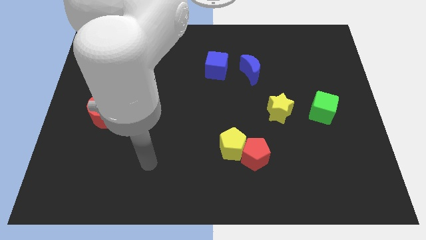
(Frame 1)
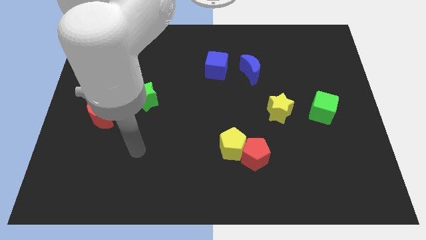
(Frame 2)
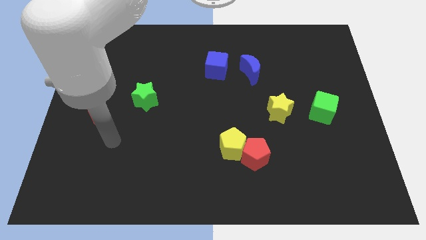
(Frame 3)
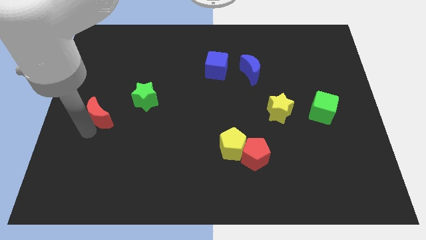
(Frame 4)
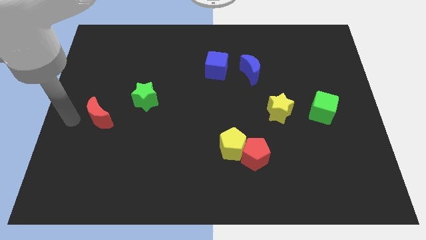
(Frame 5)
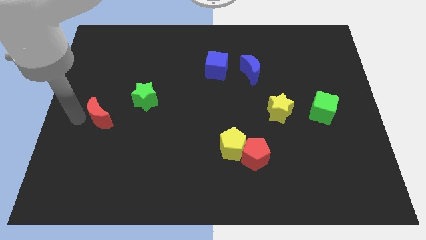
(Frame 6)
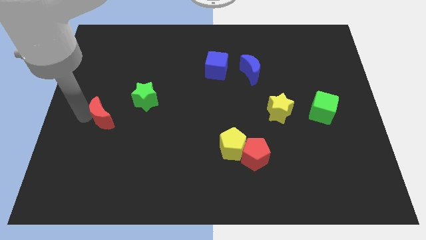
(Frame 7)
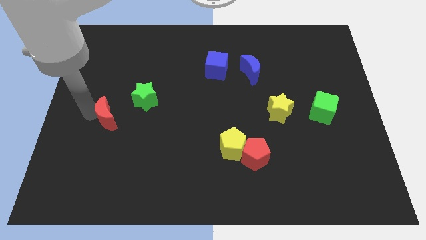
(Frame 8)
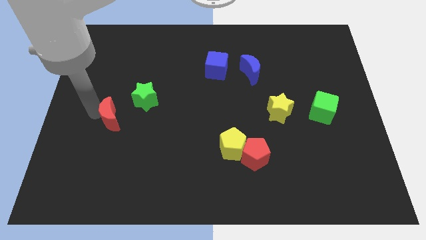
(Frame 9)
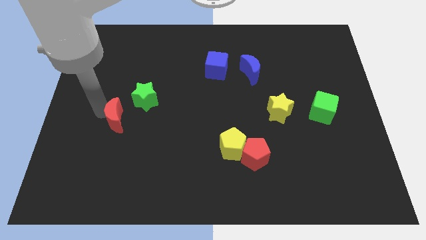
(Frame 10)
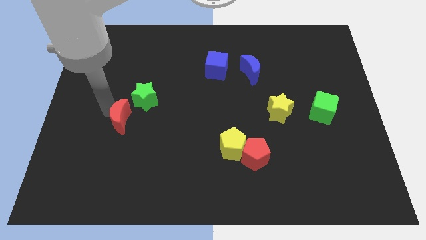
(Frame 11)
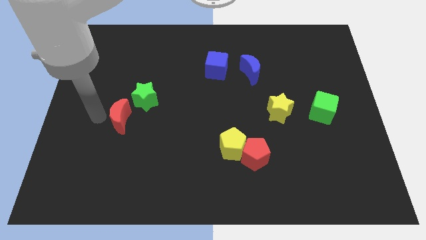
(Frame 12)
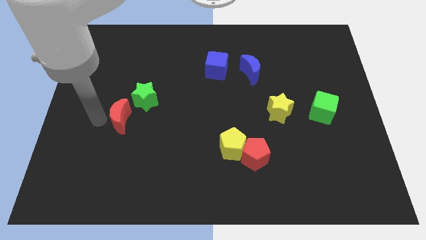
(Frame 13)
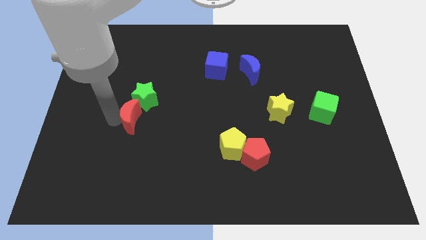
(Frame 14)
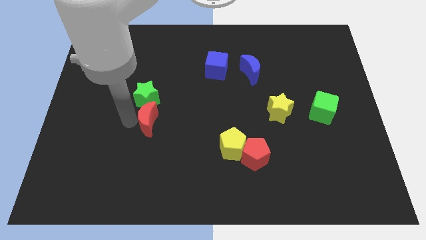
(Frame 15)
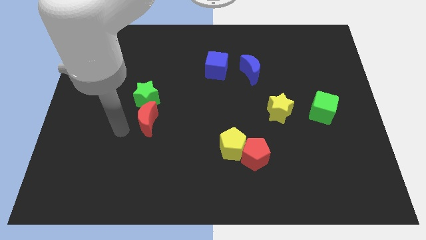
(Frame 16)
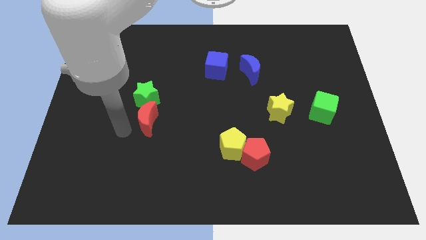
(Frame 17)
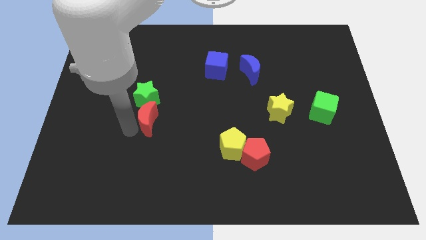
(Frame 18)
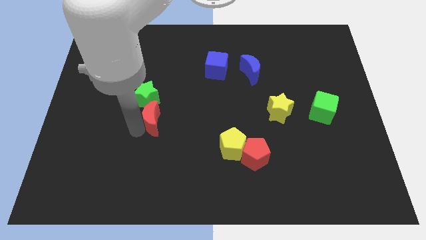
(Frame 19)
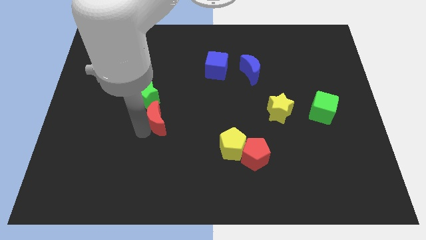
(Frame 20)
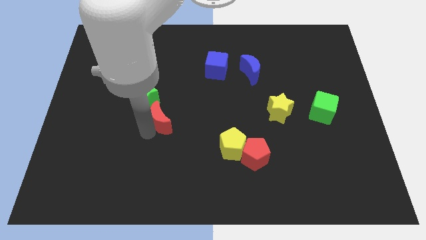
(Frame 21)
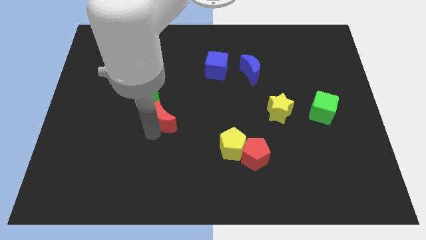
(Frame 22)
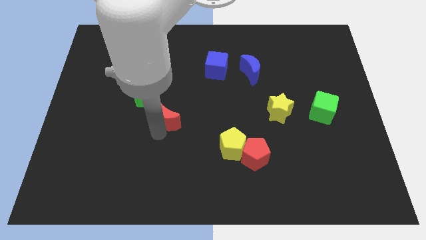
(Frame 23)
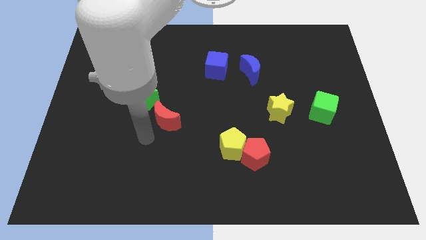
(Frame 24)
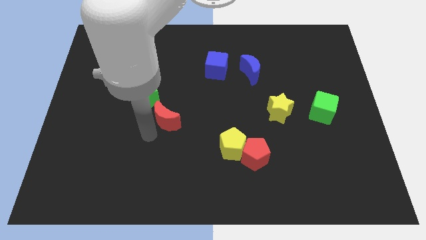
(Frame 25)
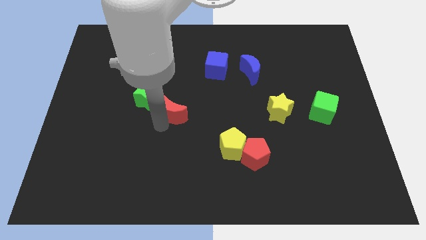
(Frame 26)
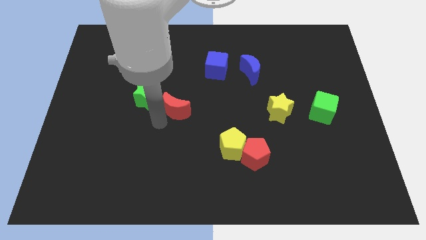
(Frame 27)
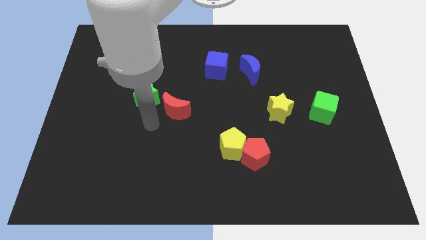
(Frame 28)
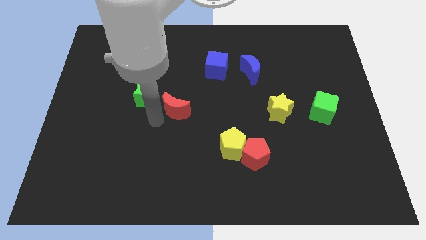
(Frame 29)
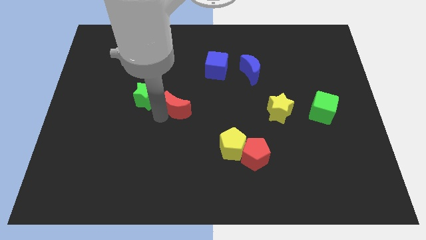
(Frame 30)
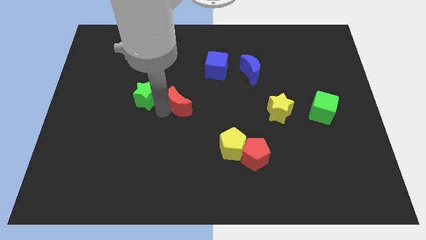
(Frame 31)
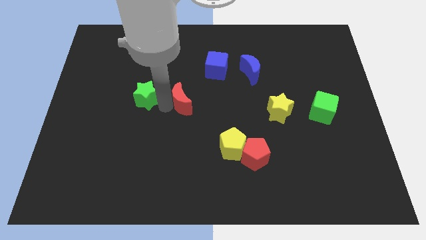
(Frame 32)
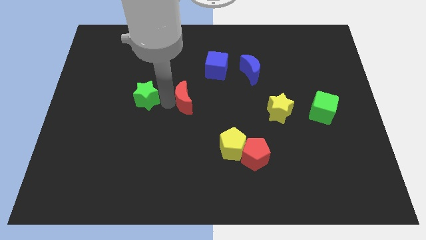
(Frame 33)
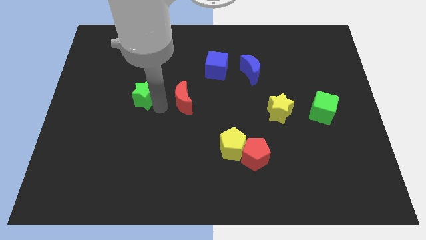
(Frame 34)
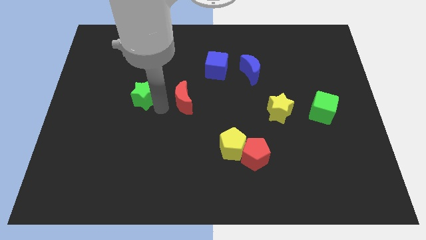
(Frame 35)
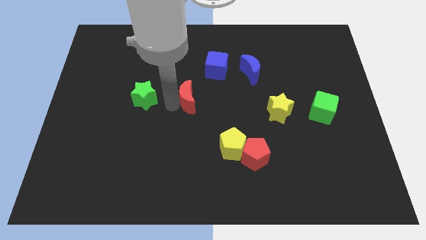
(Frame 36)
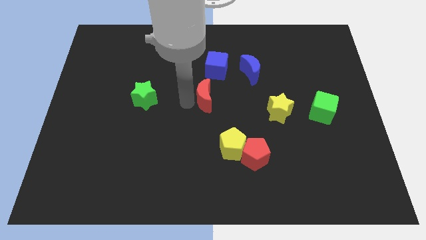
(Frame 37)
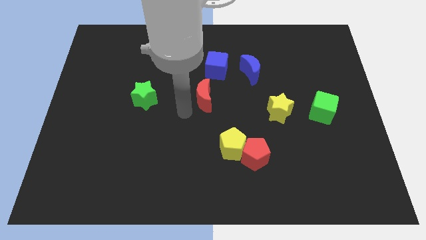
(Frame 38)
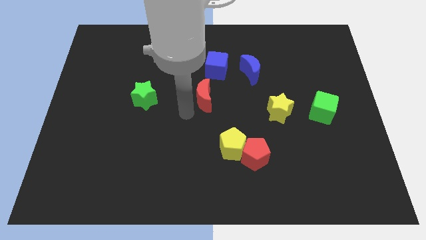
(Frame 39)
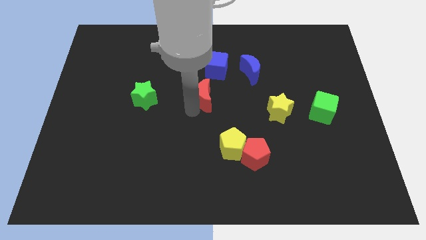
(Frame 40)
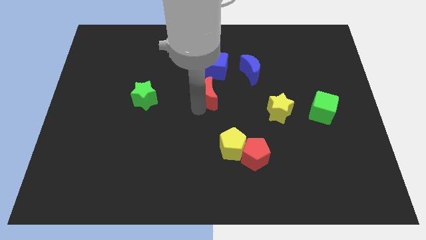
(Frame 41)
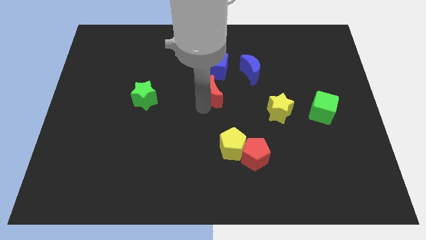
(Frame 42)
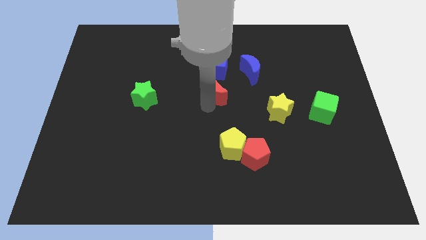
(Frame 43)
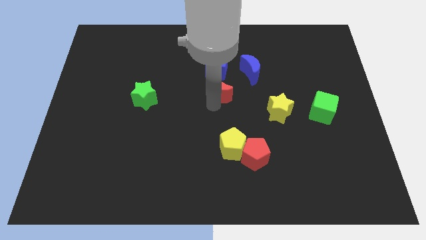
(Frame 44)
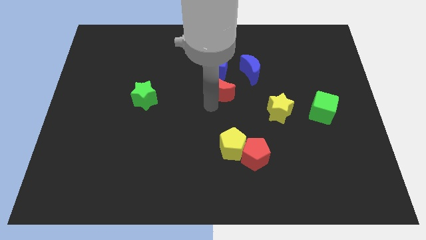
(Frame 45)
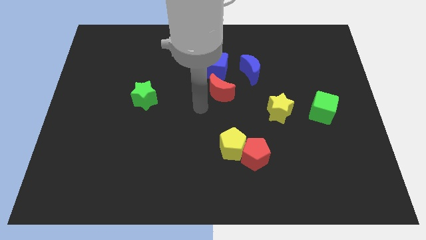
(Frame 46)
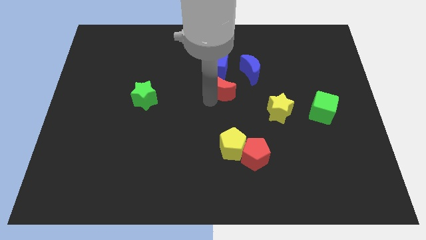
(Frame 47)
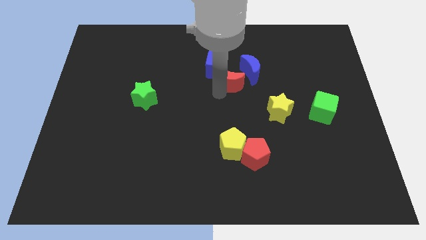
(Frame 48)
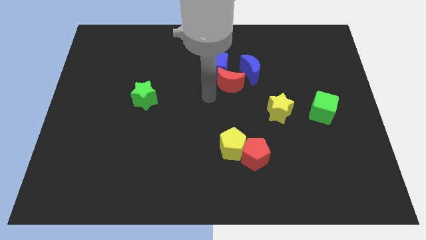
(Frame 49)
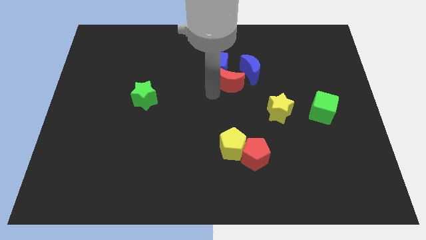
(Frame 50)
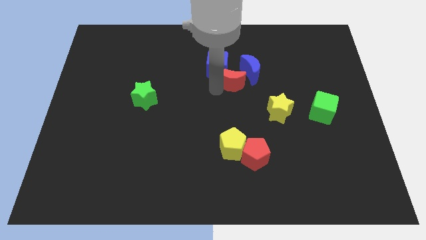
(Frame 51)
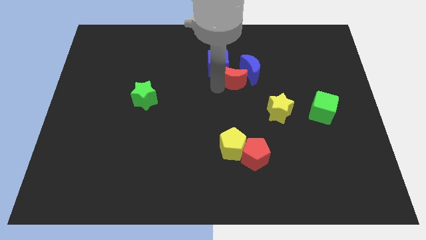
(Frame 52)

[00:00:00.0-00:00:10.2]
move the red moon to the blue moon

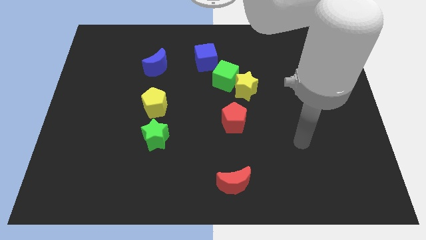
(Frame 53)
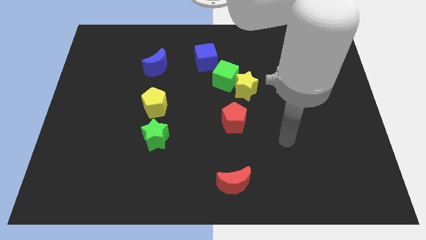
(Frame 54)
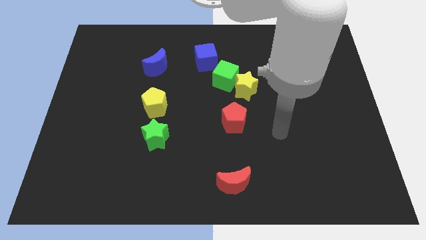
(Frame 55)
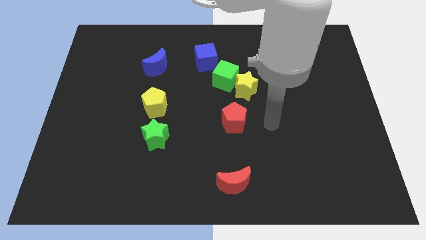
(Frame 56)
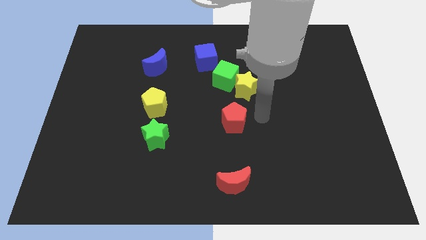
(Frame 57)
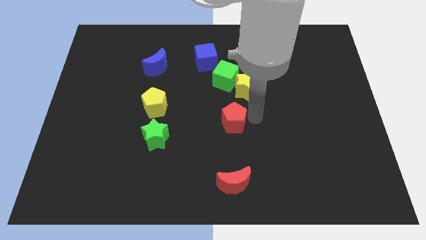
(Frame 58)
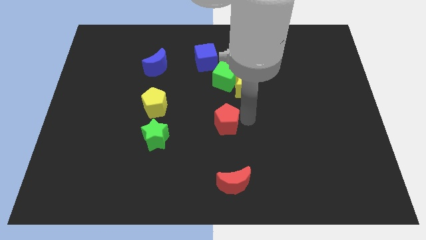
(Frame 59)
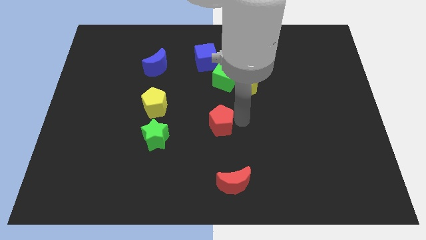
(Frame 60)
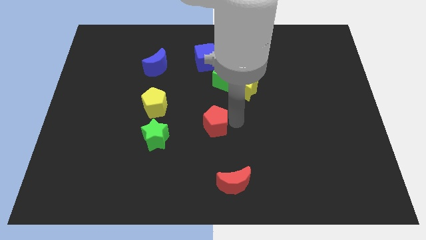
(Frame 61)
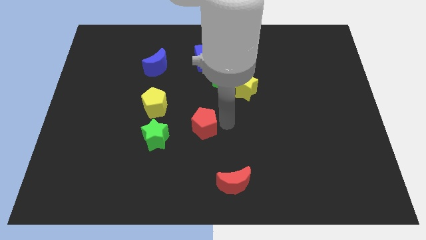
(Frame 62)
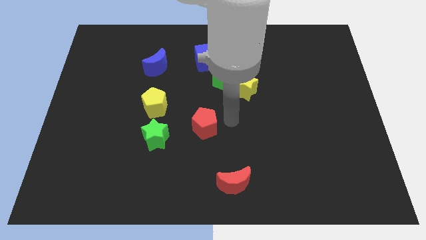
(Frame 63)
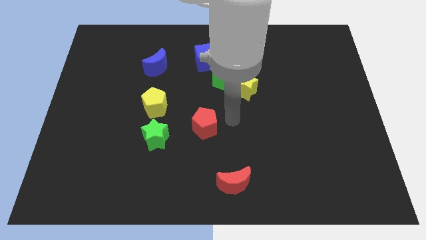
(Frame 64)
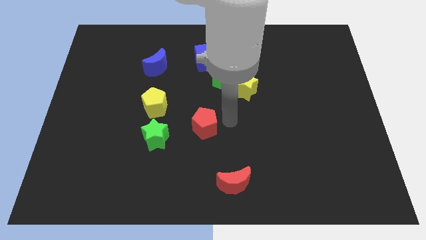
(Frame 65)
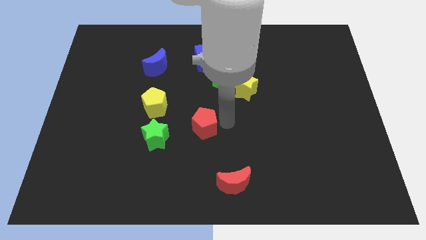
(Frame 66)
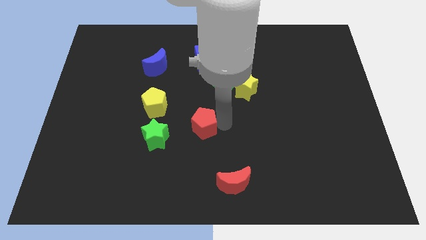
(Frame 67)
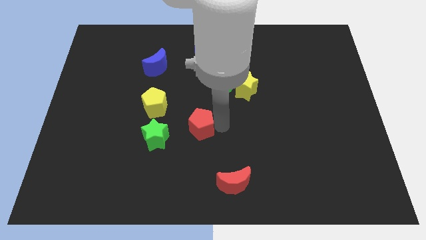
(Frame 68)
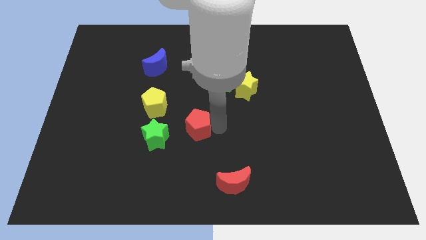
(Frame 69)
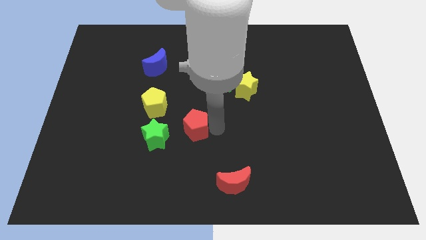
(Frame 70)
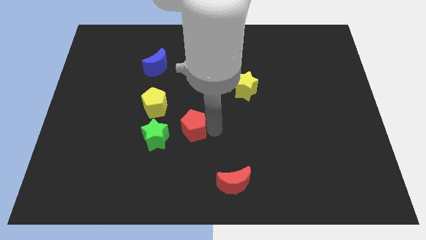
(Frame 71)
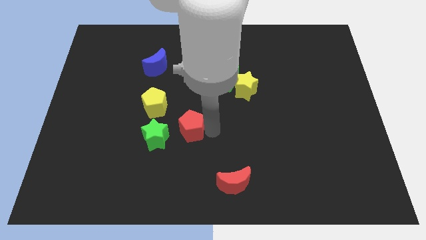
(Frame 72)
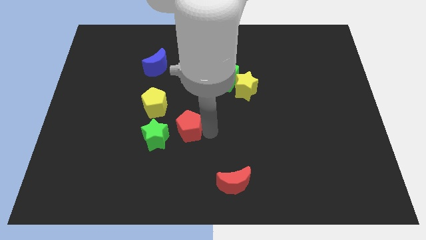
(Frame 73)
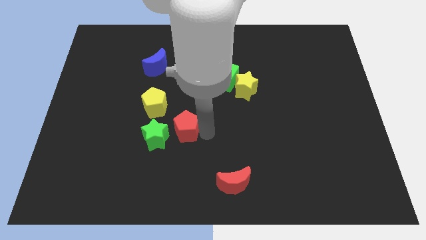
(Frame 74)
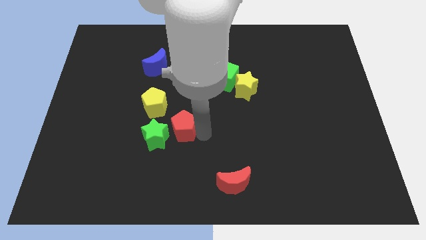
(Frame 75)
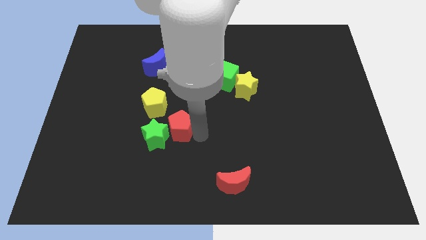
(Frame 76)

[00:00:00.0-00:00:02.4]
put the red pentagon to the green star
